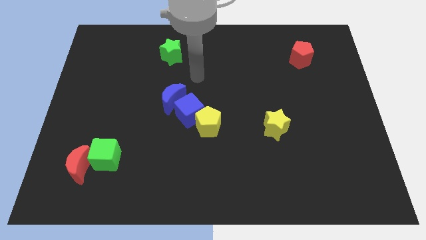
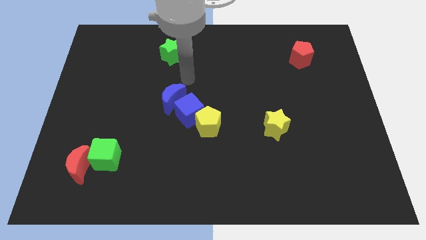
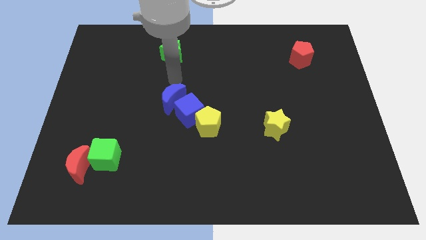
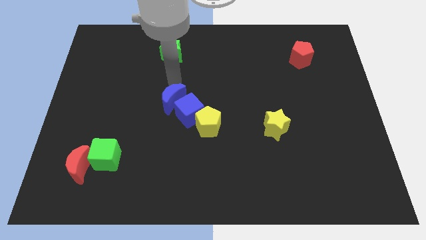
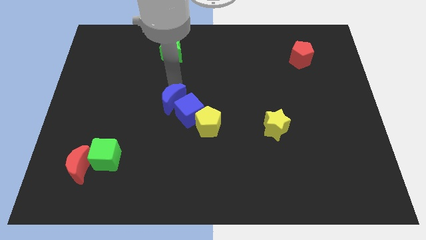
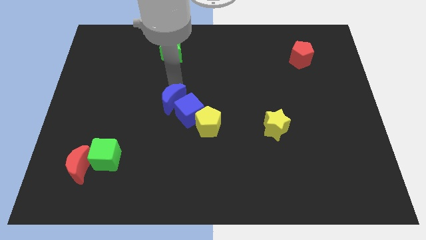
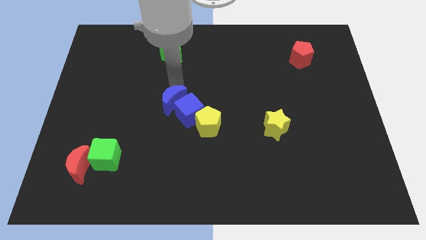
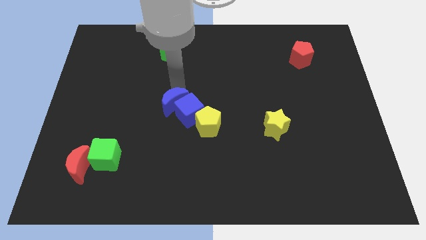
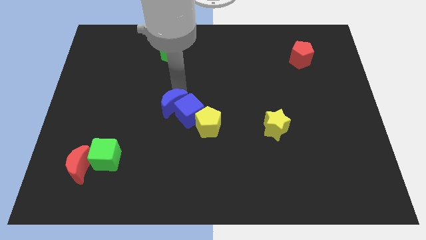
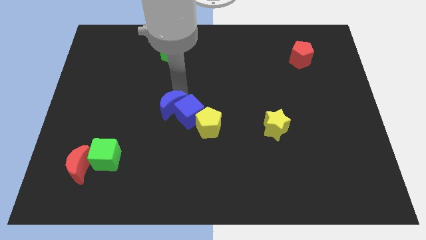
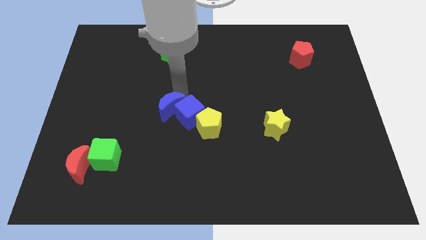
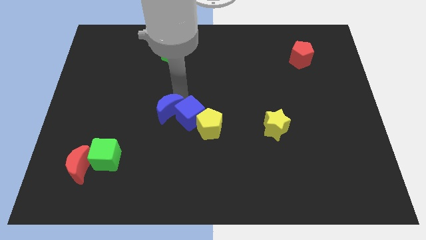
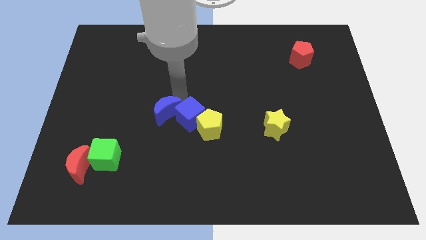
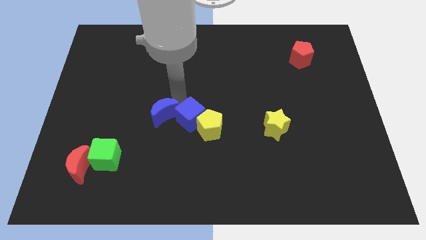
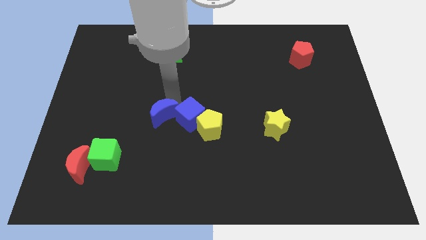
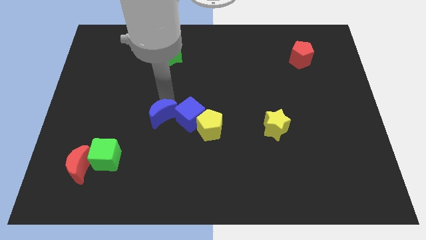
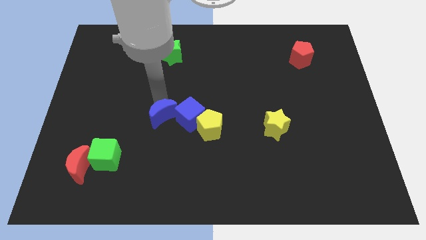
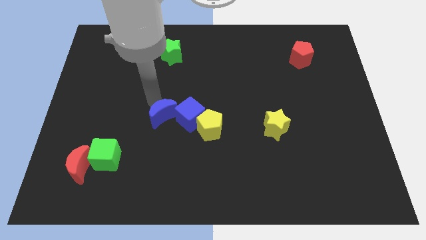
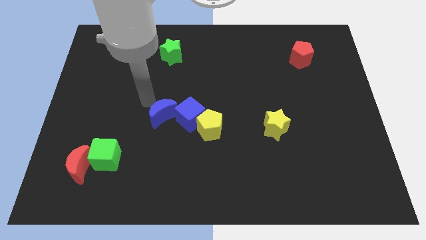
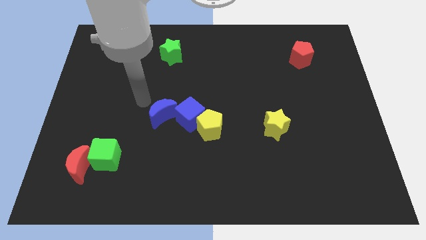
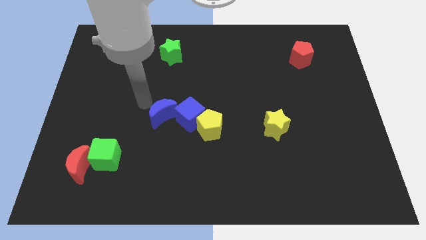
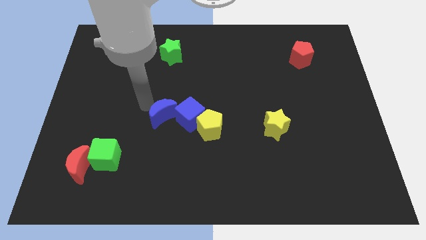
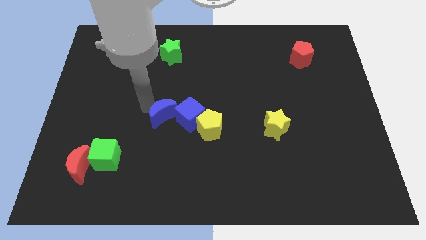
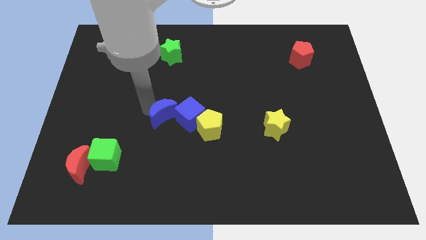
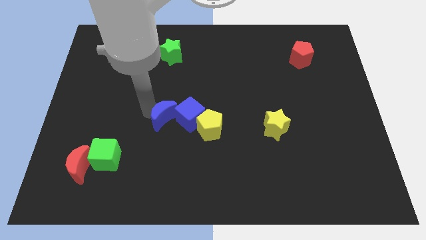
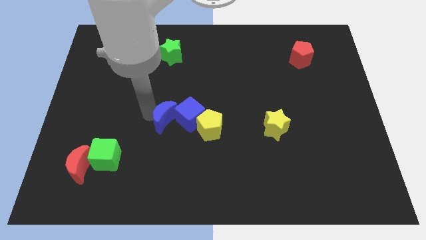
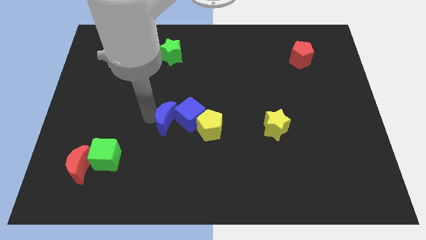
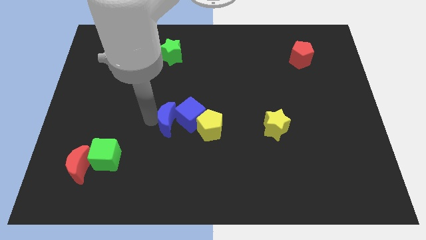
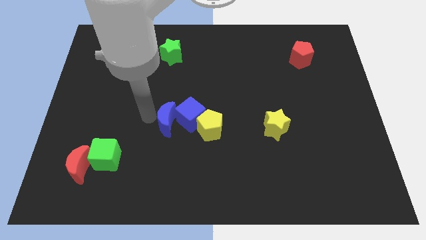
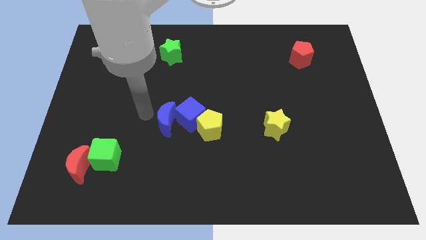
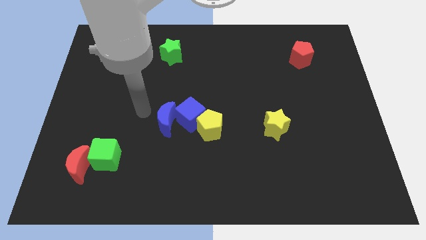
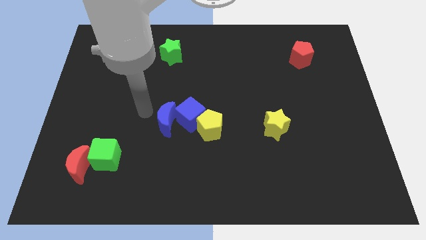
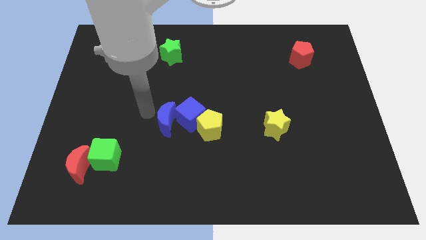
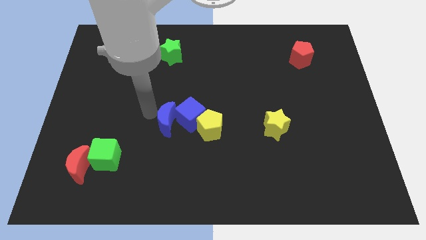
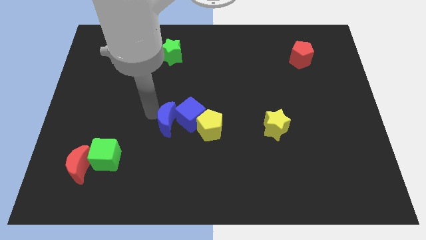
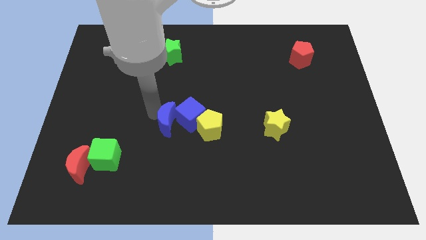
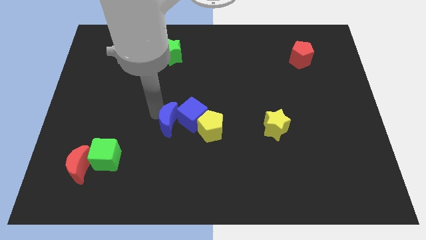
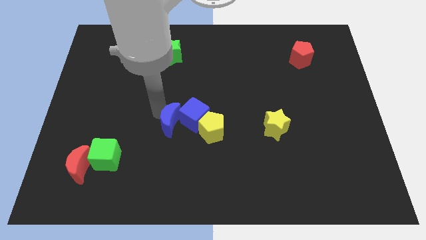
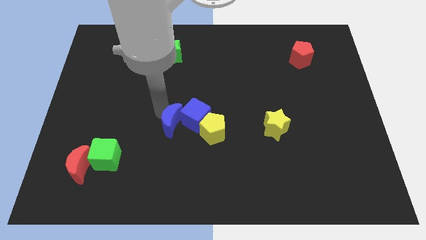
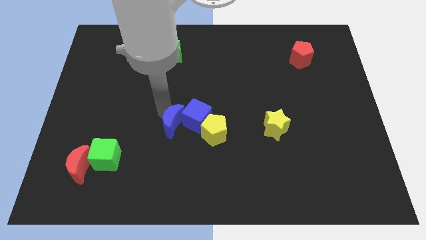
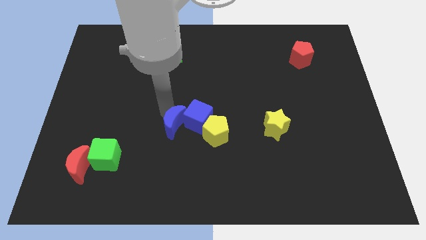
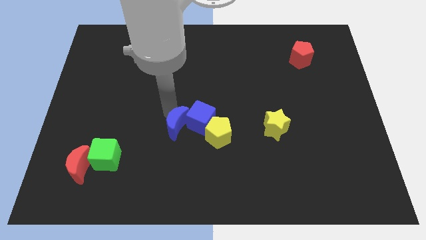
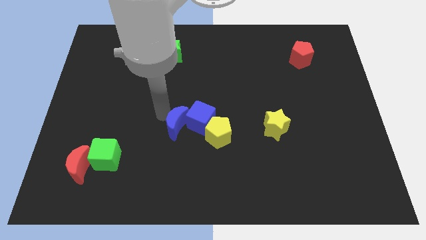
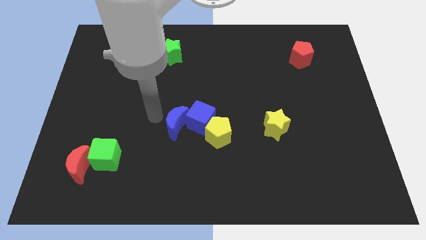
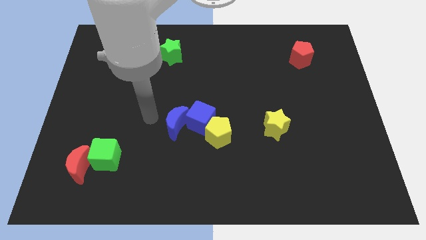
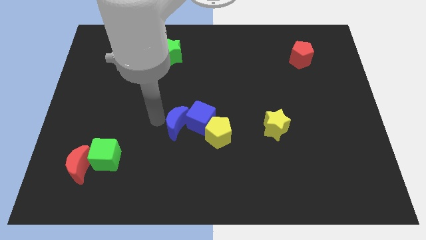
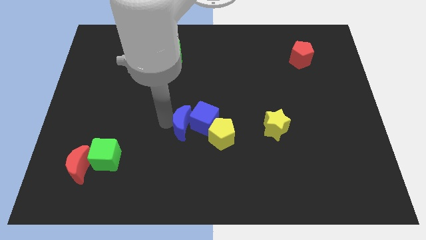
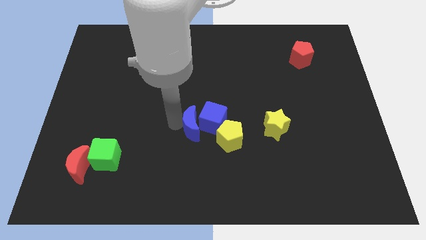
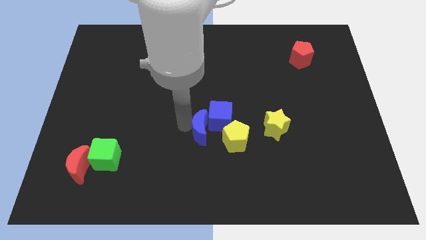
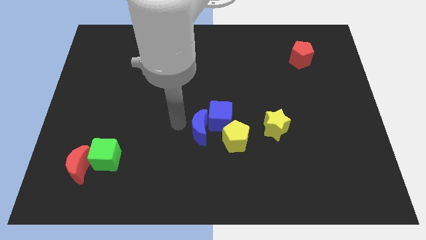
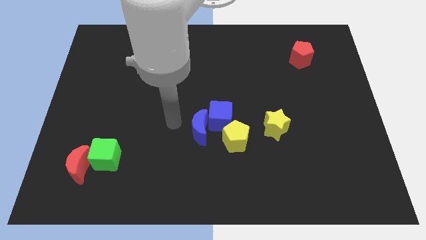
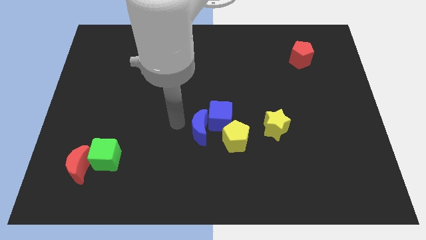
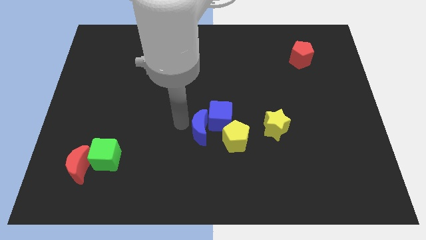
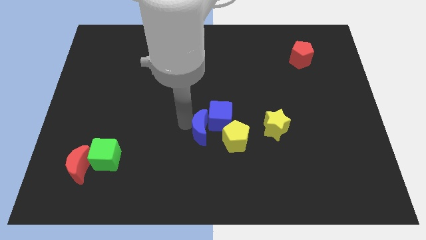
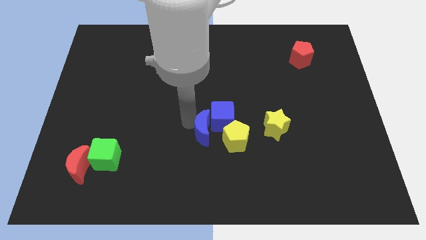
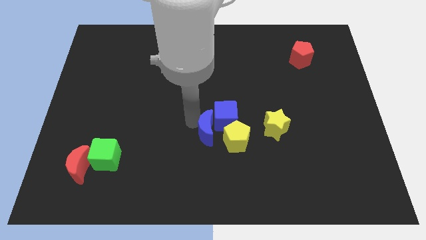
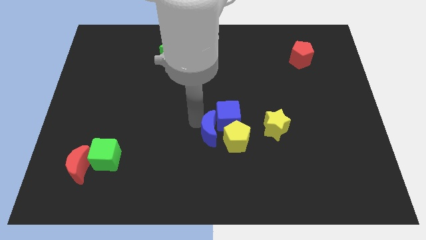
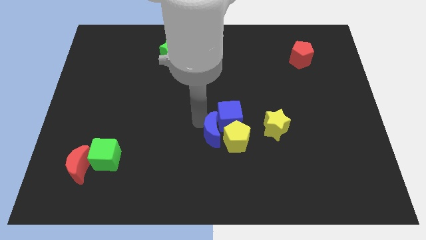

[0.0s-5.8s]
slide the blue moon towards the yellow pentagon

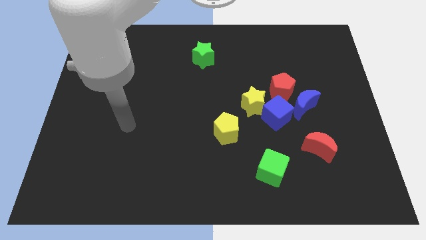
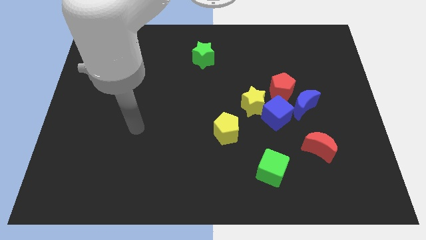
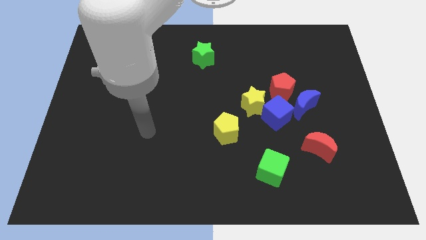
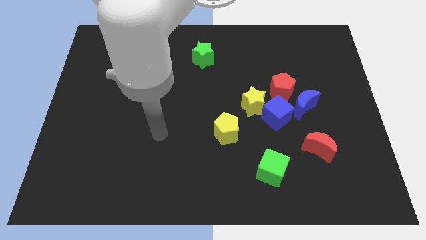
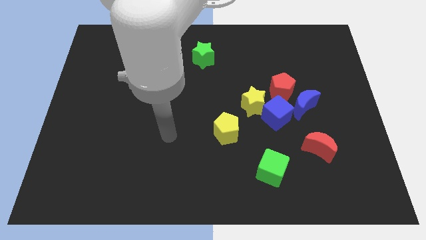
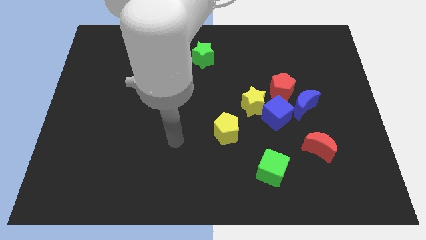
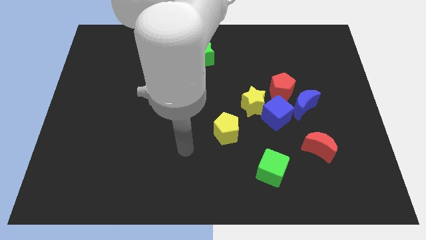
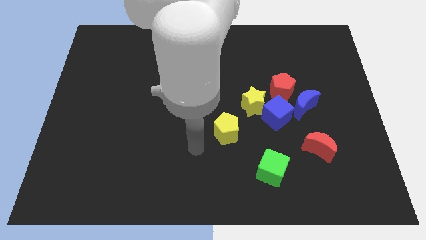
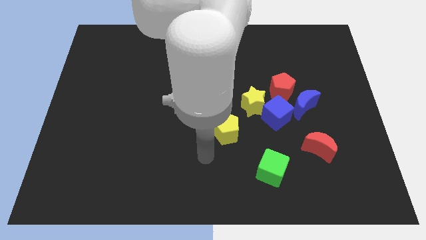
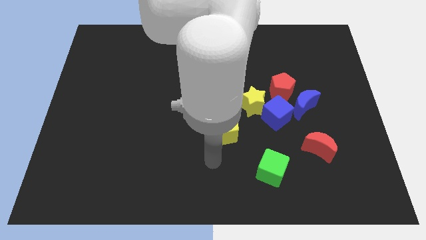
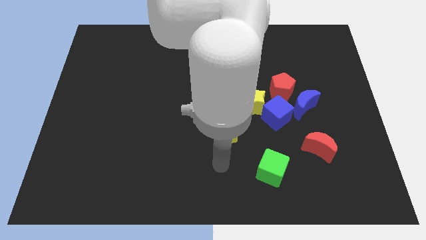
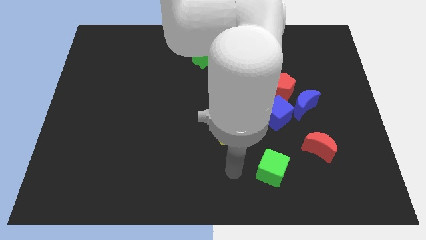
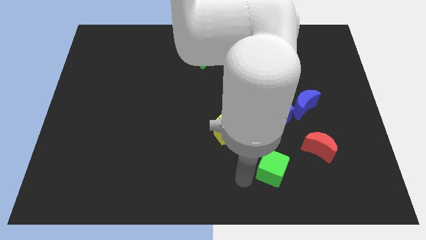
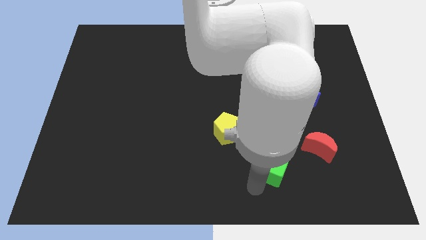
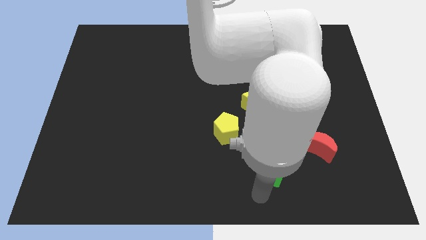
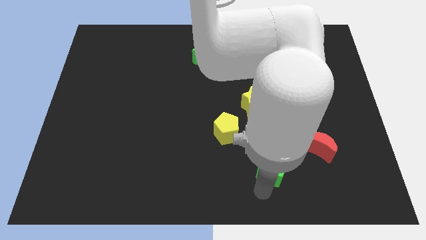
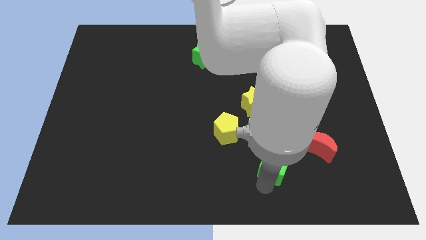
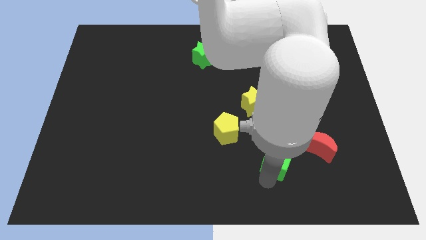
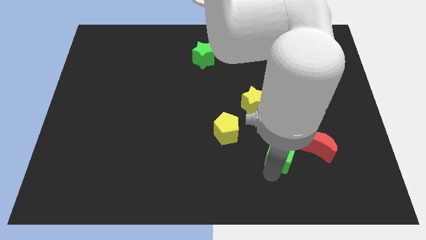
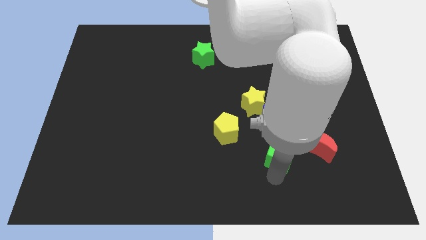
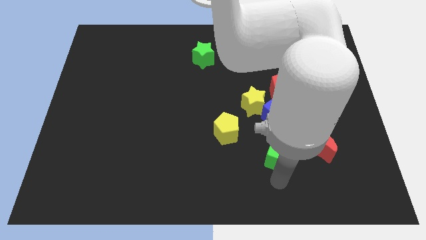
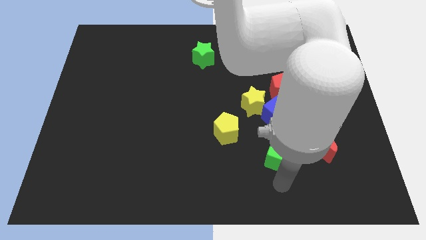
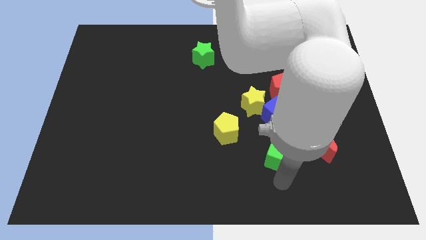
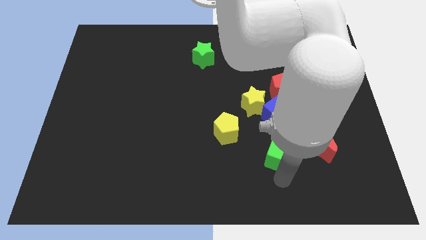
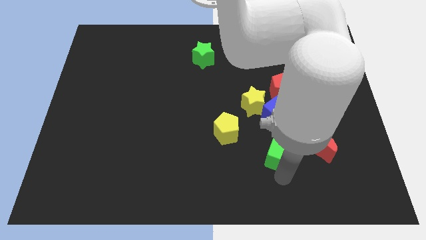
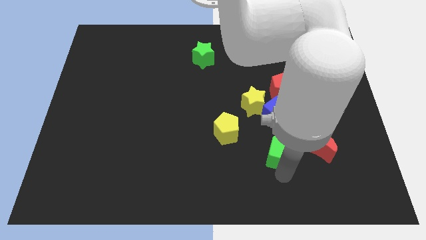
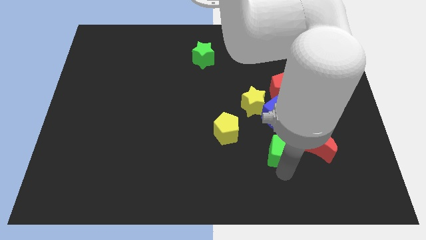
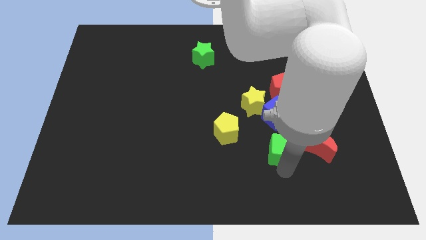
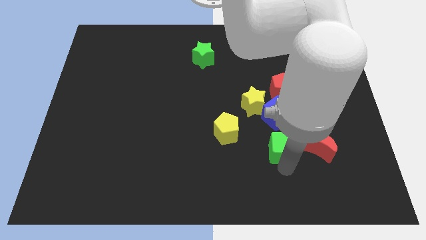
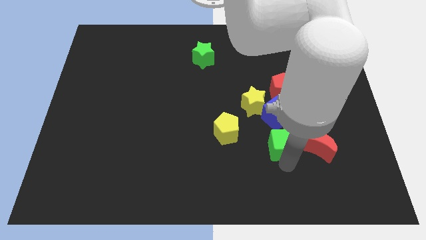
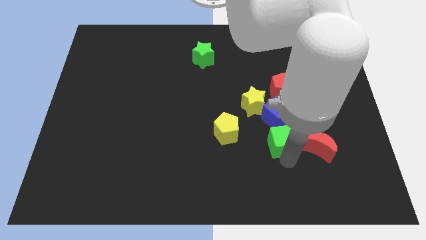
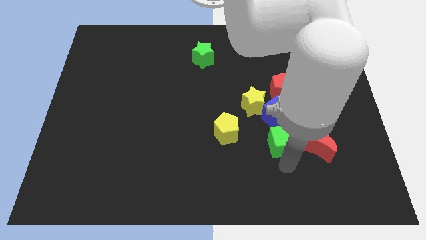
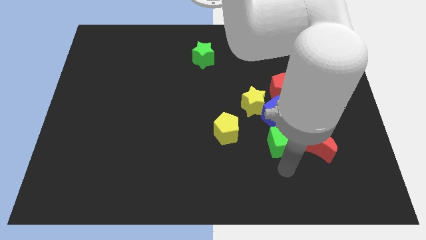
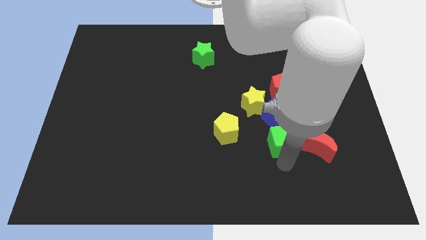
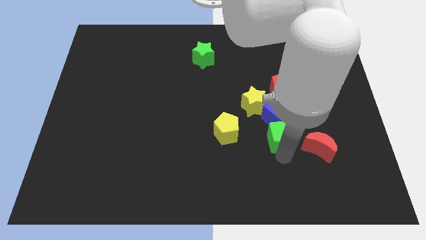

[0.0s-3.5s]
move the green cube close to the blue cube
